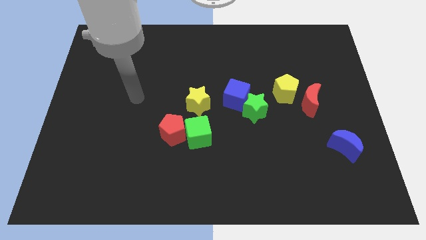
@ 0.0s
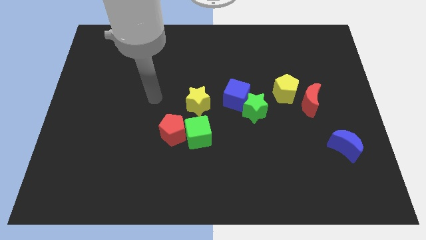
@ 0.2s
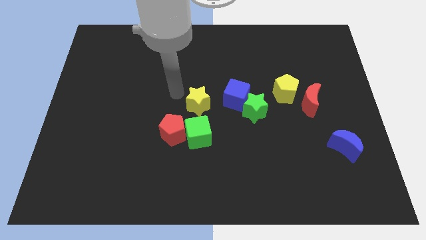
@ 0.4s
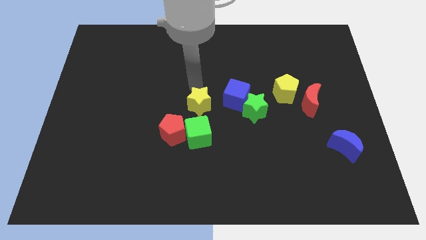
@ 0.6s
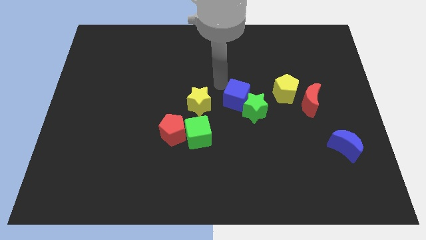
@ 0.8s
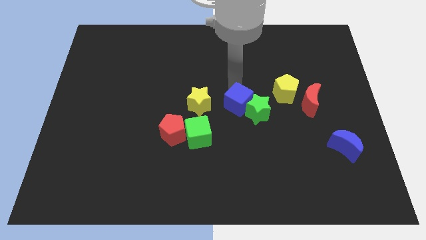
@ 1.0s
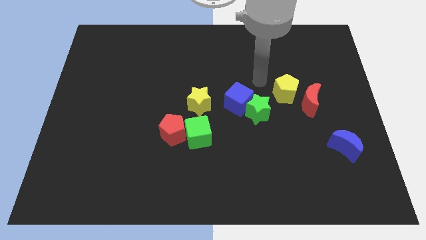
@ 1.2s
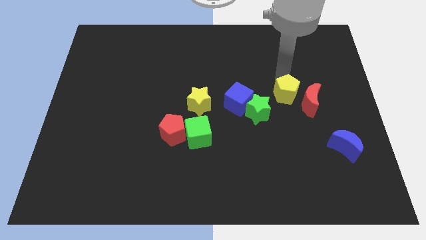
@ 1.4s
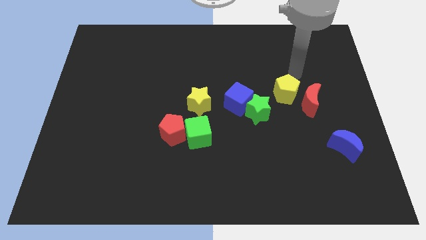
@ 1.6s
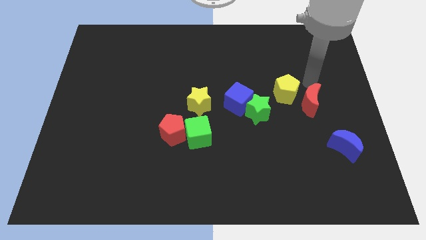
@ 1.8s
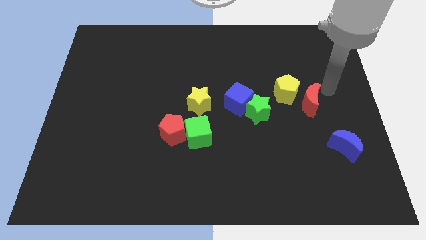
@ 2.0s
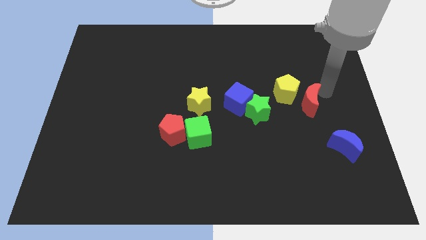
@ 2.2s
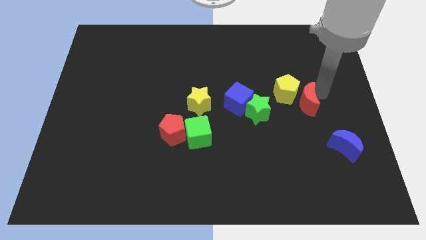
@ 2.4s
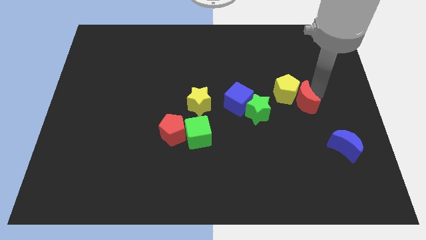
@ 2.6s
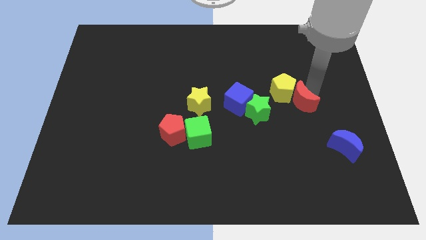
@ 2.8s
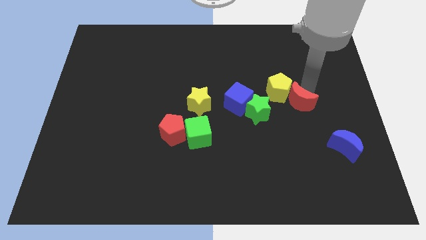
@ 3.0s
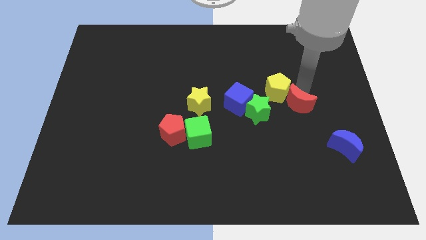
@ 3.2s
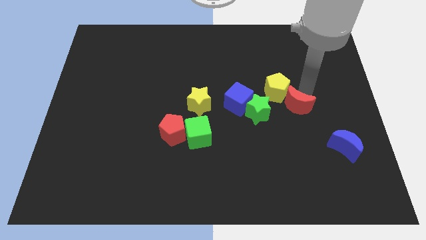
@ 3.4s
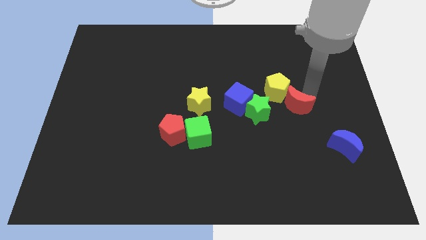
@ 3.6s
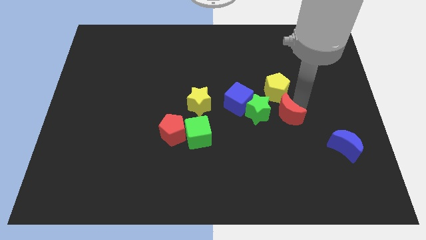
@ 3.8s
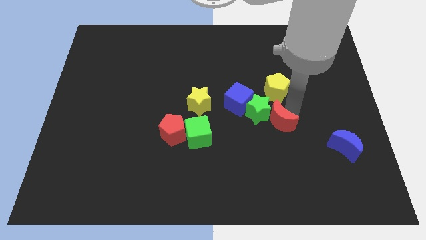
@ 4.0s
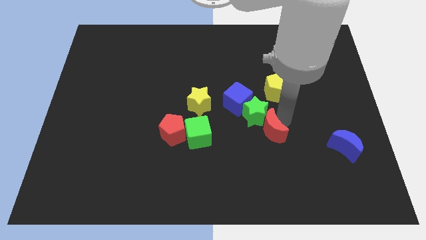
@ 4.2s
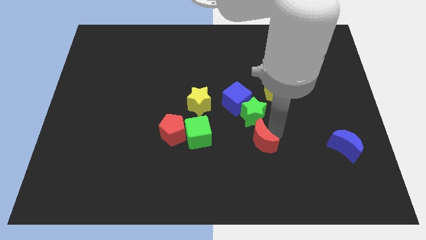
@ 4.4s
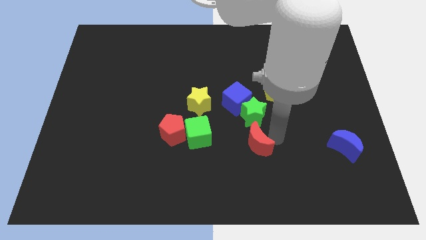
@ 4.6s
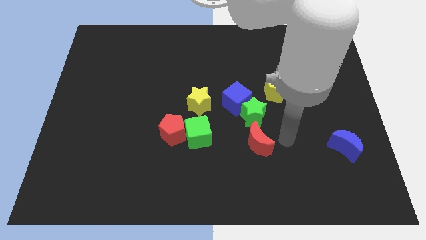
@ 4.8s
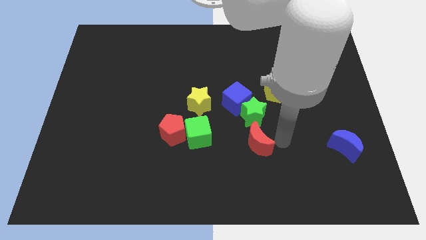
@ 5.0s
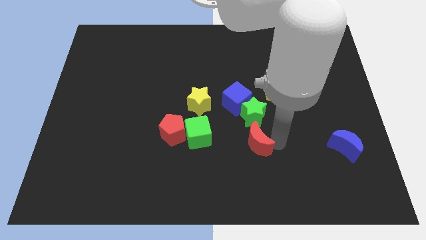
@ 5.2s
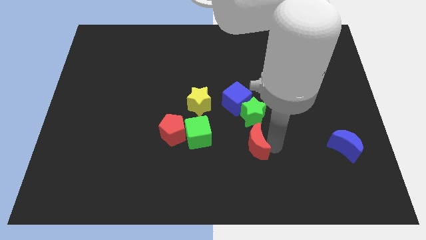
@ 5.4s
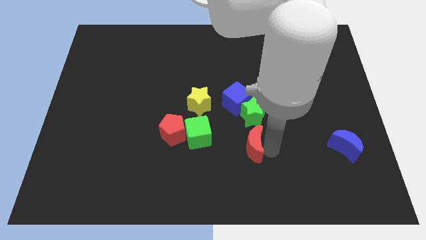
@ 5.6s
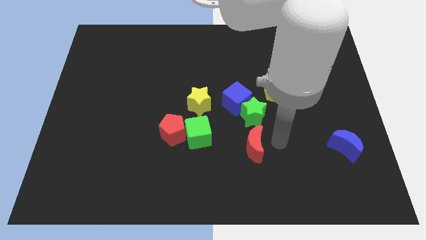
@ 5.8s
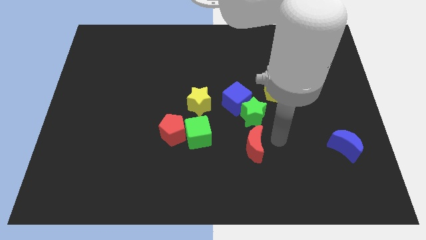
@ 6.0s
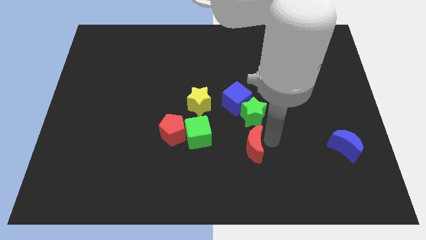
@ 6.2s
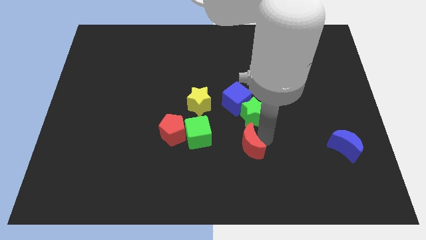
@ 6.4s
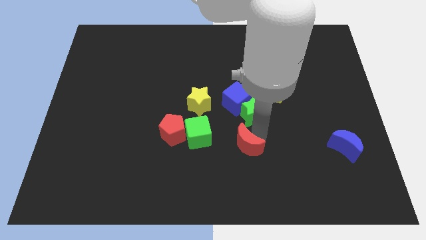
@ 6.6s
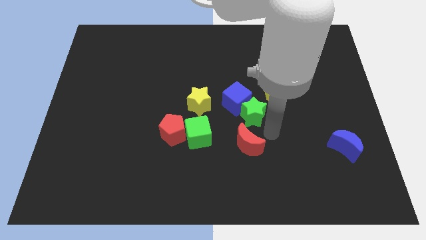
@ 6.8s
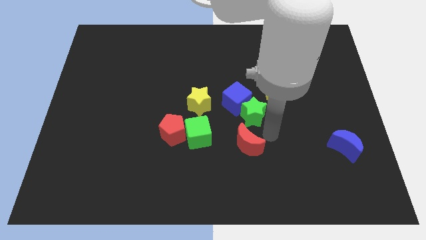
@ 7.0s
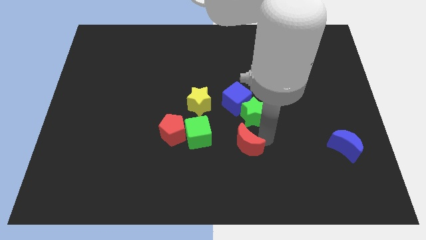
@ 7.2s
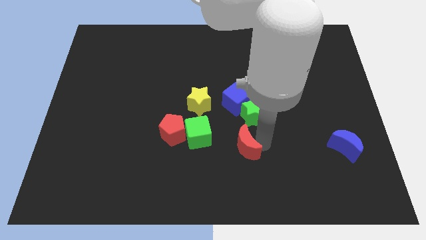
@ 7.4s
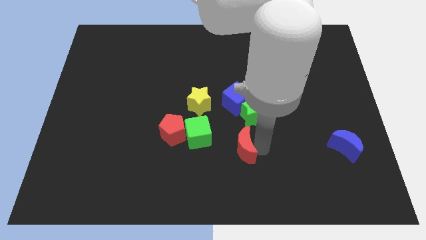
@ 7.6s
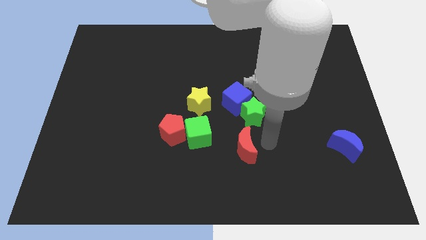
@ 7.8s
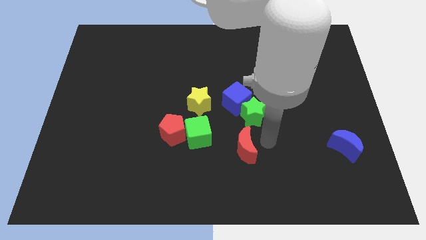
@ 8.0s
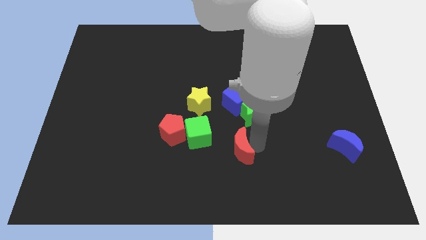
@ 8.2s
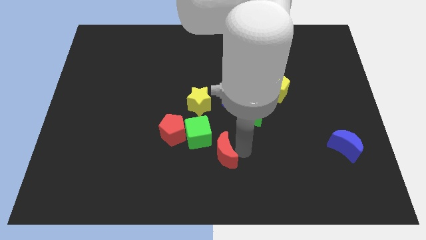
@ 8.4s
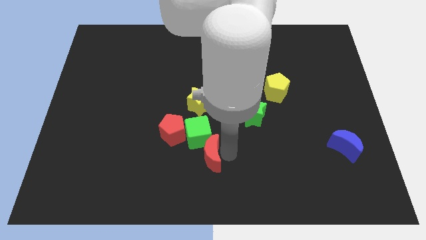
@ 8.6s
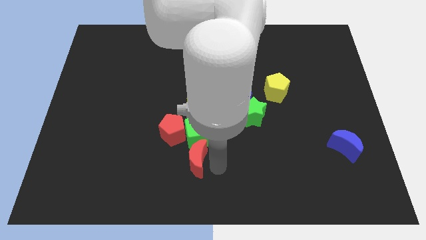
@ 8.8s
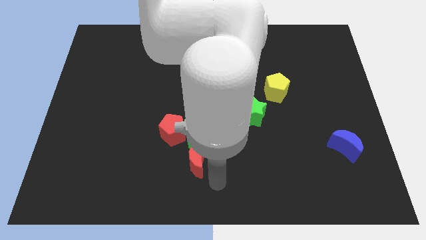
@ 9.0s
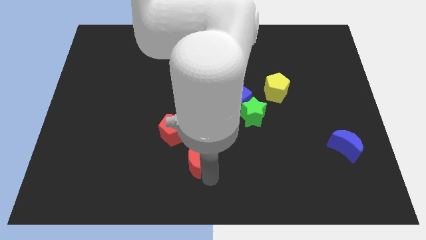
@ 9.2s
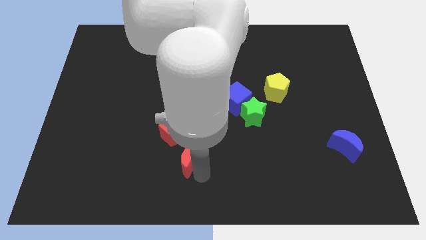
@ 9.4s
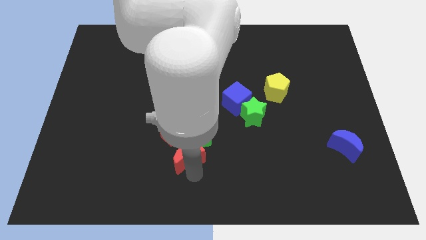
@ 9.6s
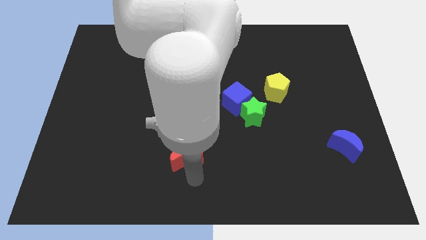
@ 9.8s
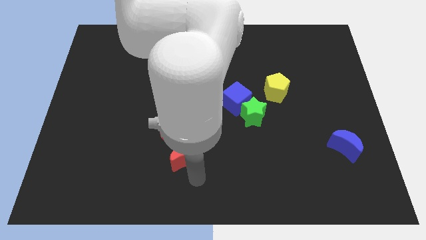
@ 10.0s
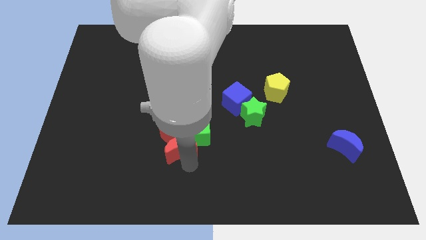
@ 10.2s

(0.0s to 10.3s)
slide the red moon close to the red pentagon
